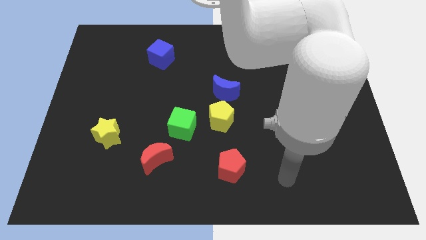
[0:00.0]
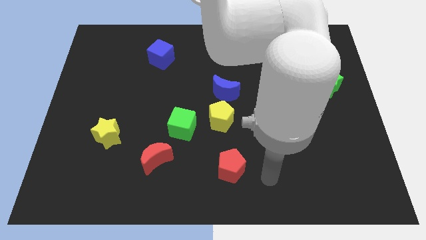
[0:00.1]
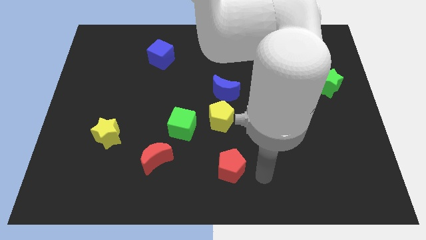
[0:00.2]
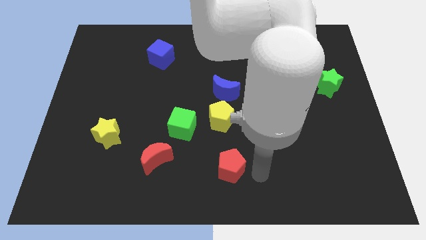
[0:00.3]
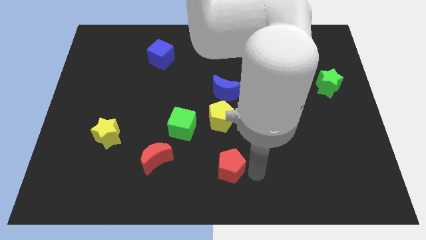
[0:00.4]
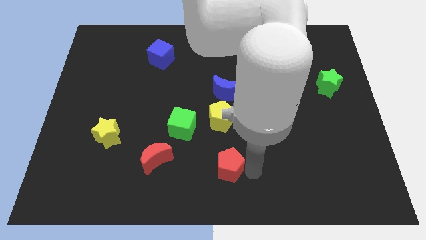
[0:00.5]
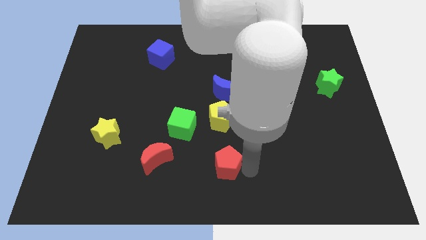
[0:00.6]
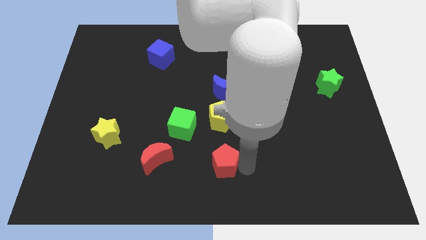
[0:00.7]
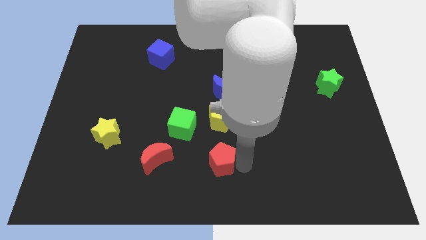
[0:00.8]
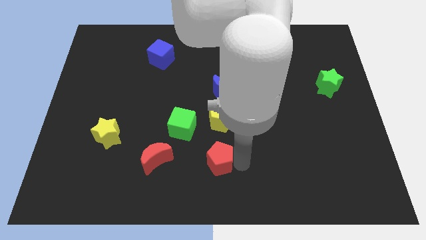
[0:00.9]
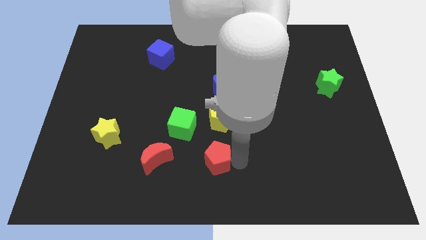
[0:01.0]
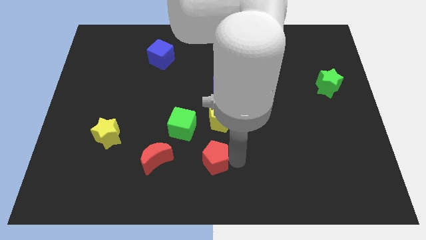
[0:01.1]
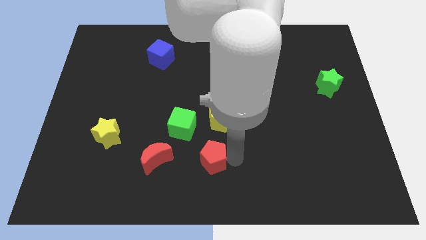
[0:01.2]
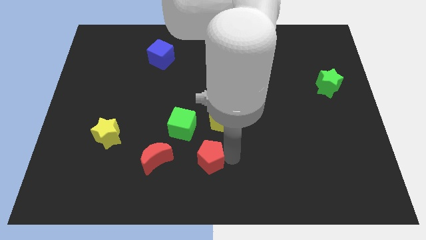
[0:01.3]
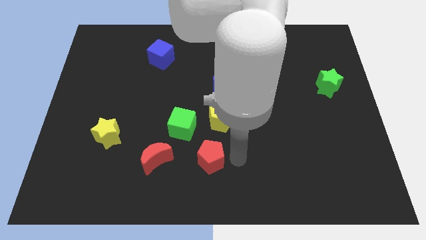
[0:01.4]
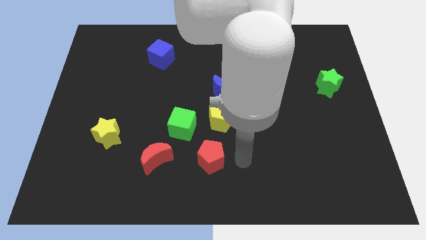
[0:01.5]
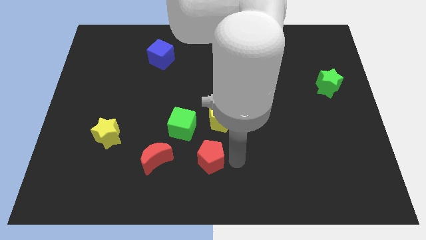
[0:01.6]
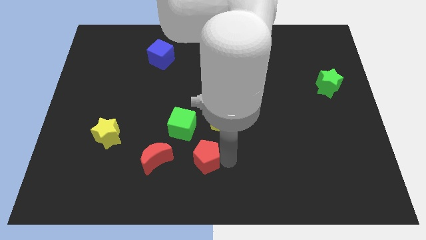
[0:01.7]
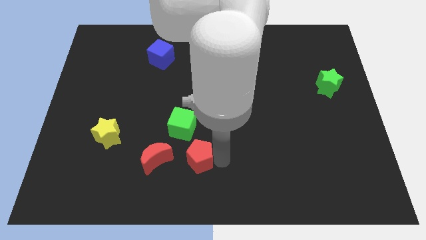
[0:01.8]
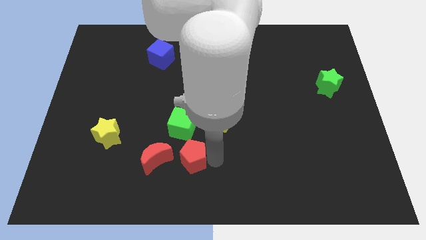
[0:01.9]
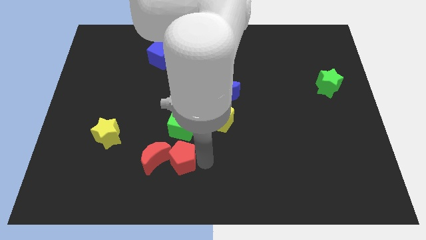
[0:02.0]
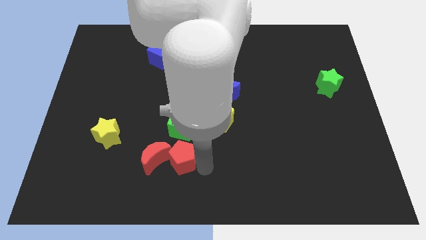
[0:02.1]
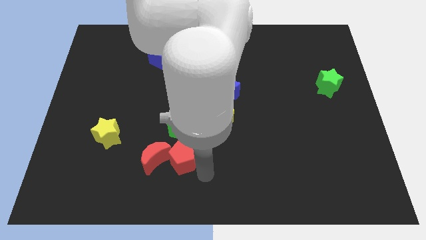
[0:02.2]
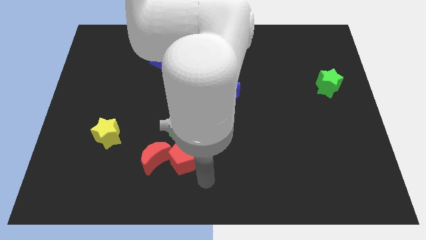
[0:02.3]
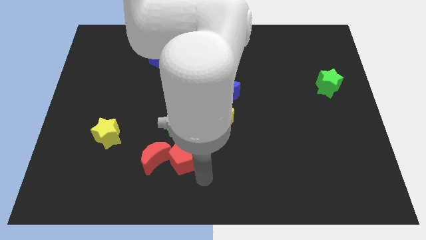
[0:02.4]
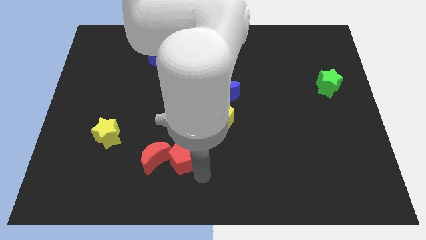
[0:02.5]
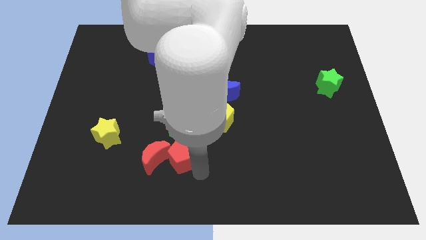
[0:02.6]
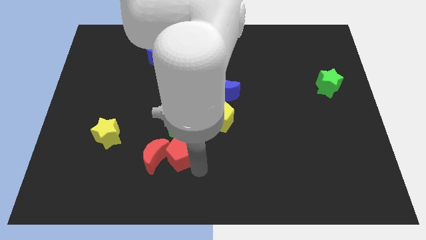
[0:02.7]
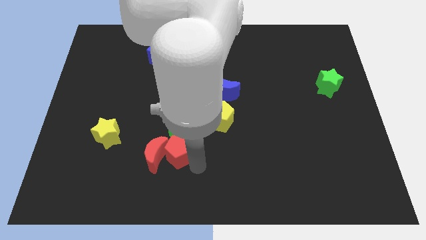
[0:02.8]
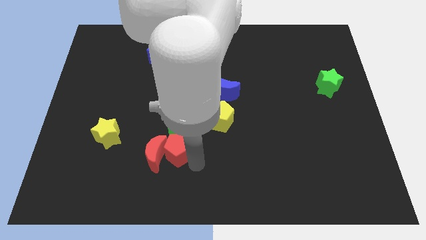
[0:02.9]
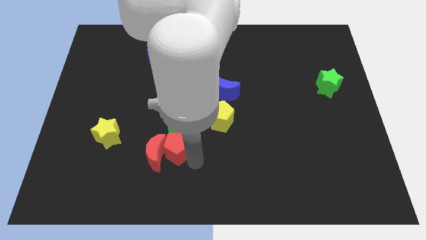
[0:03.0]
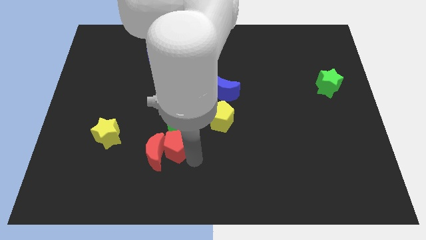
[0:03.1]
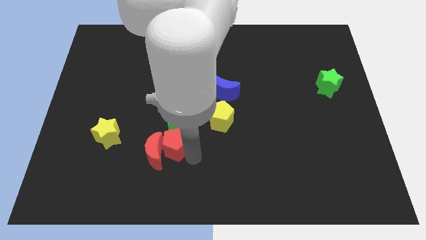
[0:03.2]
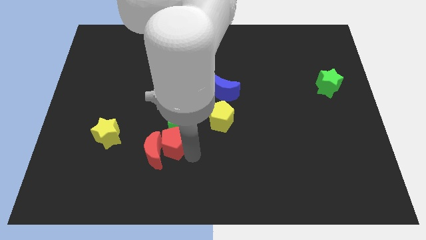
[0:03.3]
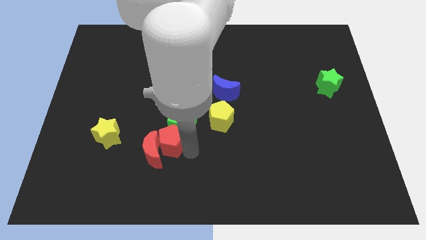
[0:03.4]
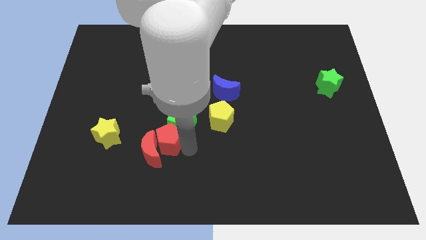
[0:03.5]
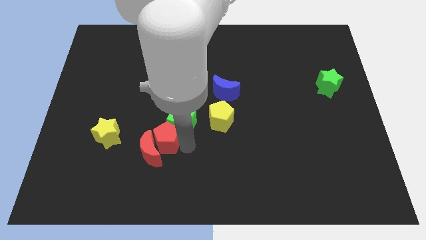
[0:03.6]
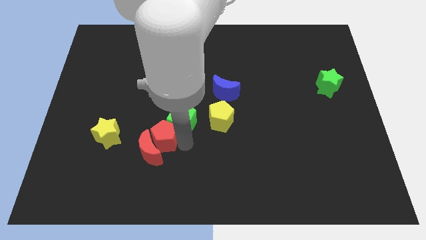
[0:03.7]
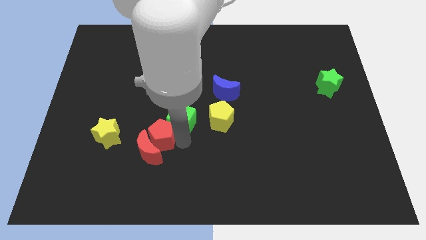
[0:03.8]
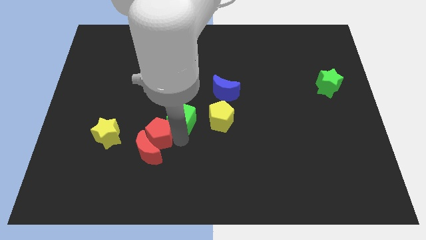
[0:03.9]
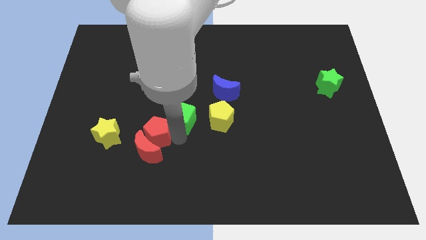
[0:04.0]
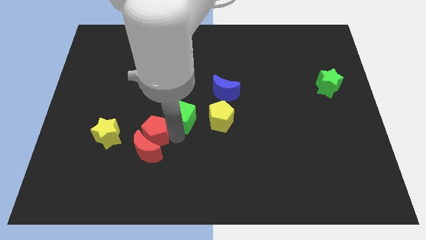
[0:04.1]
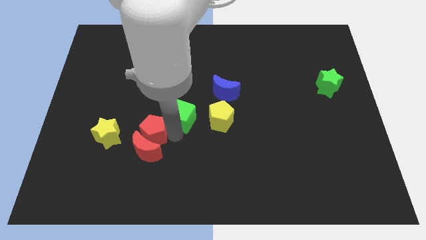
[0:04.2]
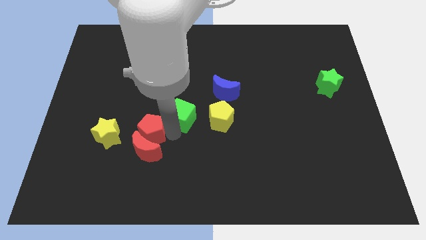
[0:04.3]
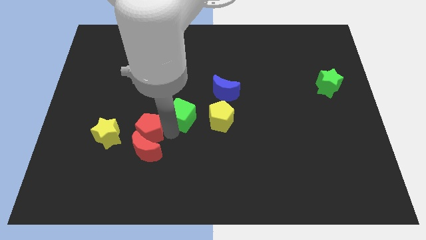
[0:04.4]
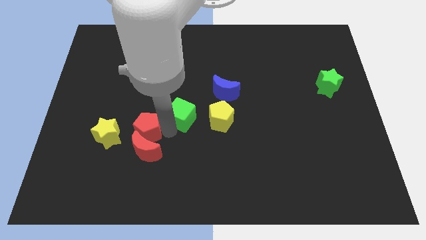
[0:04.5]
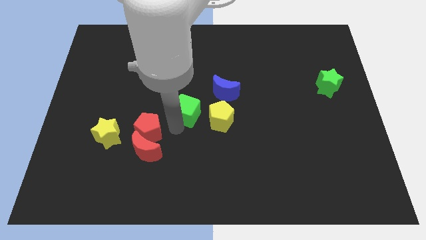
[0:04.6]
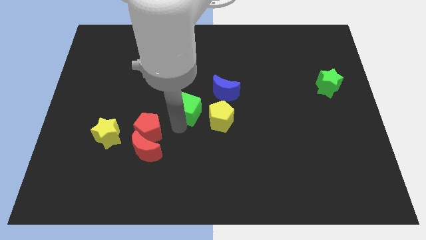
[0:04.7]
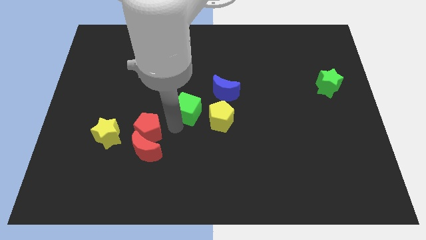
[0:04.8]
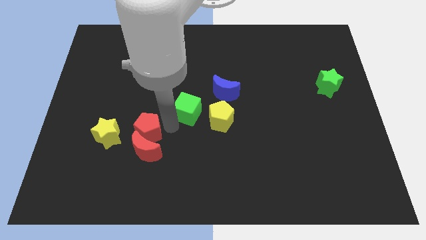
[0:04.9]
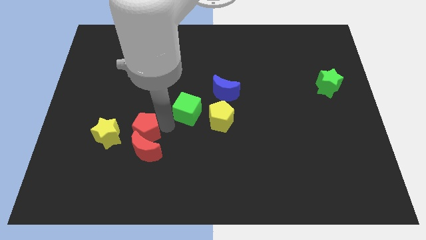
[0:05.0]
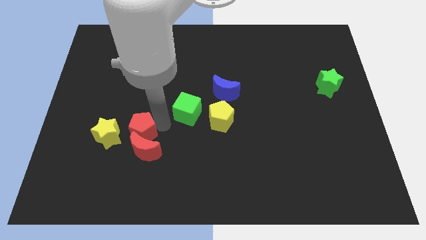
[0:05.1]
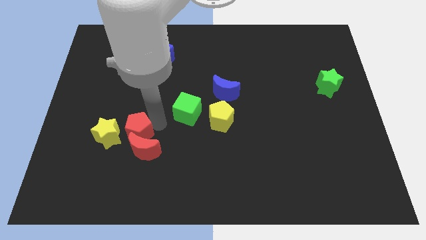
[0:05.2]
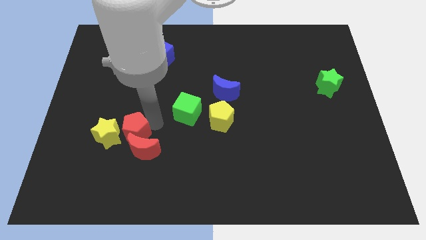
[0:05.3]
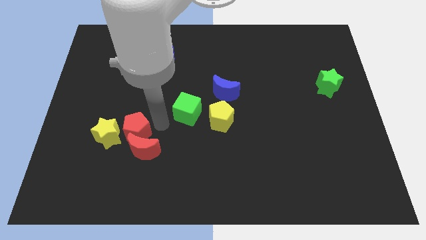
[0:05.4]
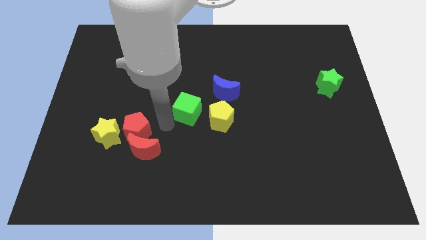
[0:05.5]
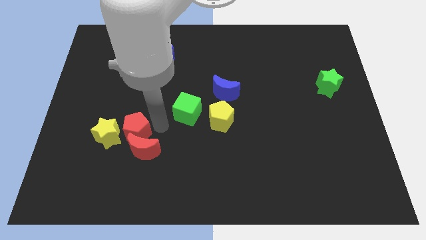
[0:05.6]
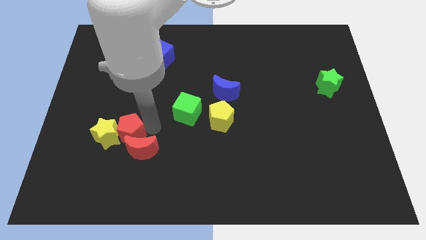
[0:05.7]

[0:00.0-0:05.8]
slide the red pentagon towards the yellow star
